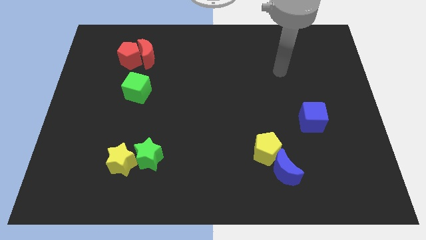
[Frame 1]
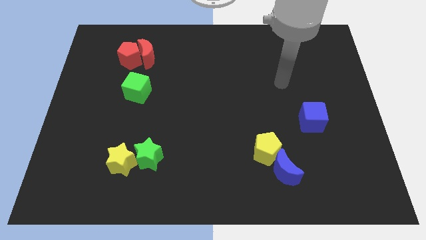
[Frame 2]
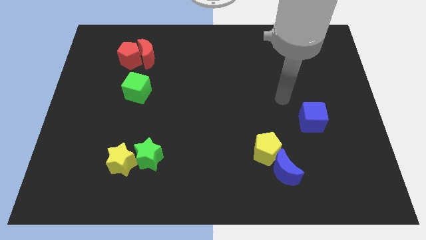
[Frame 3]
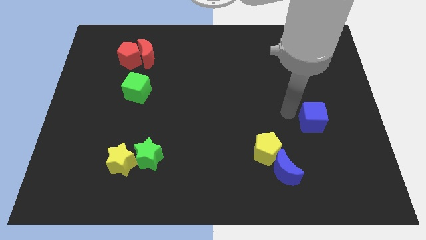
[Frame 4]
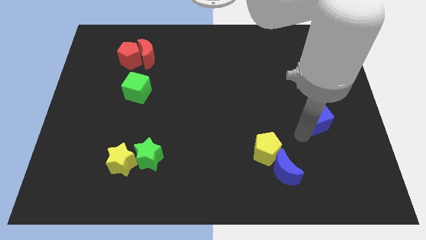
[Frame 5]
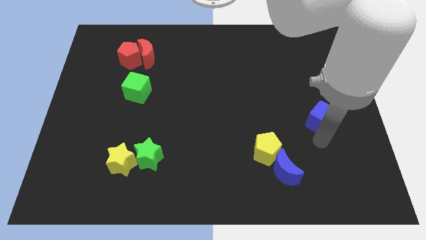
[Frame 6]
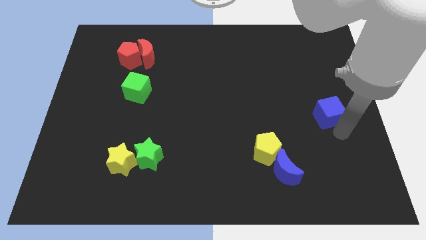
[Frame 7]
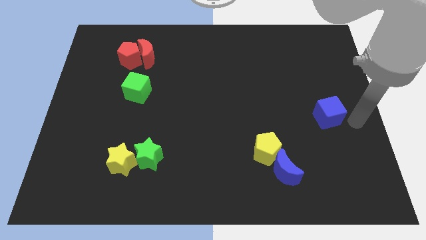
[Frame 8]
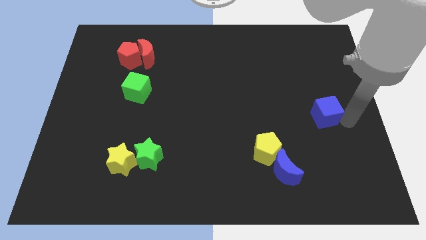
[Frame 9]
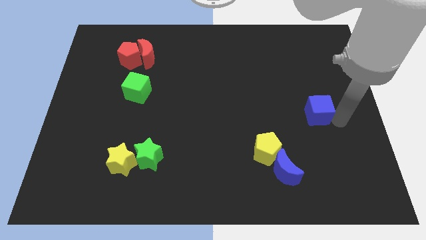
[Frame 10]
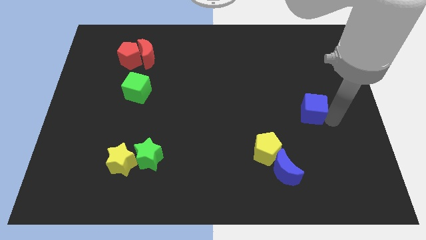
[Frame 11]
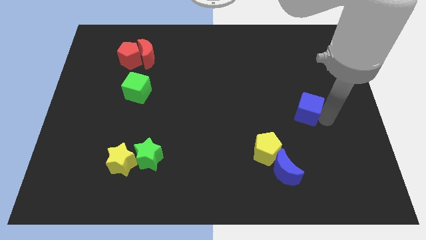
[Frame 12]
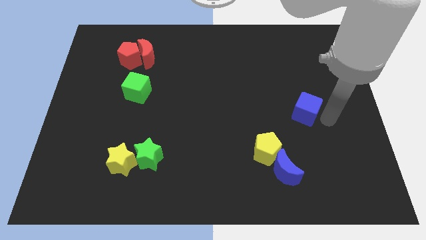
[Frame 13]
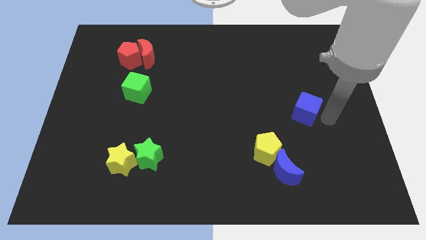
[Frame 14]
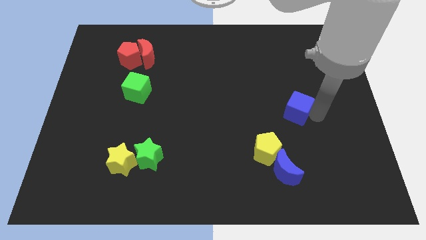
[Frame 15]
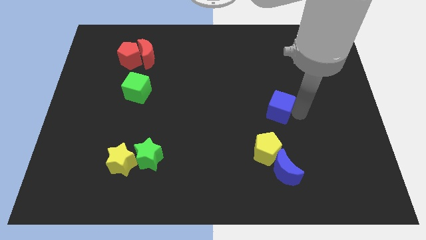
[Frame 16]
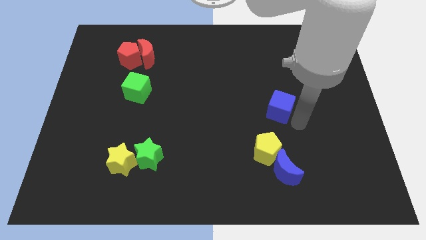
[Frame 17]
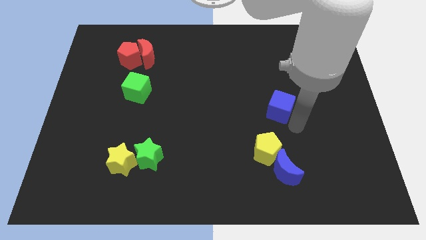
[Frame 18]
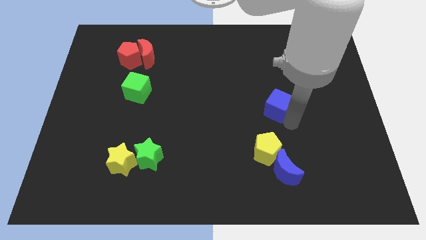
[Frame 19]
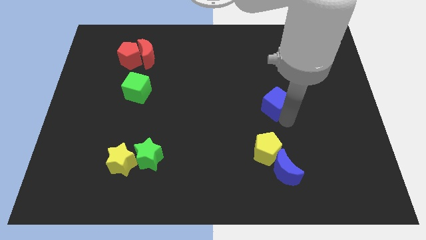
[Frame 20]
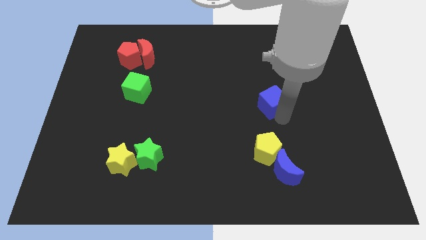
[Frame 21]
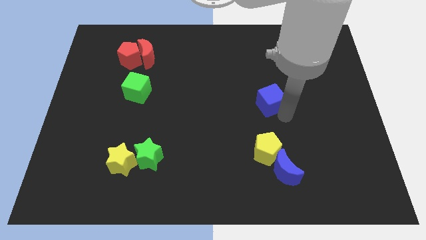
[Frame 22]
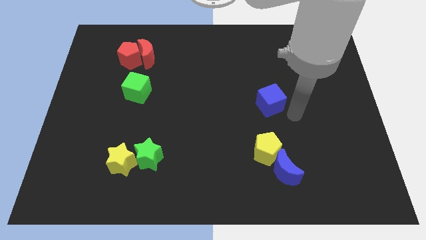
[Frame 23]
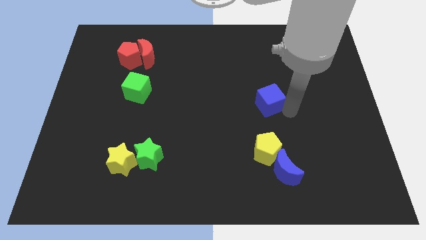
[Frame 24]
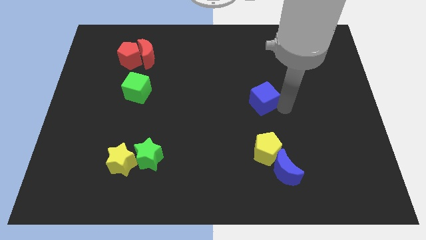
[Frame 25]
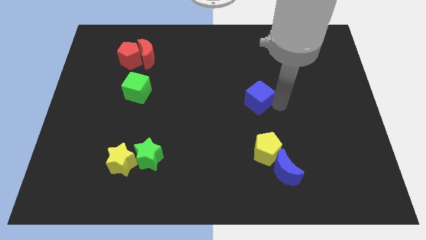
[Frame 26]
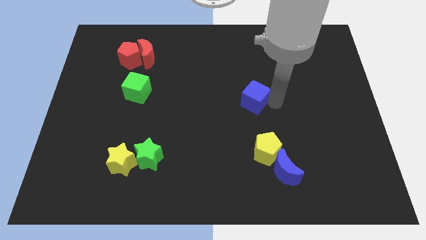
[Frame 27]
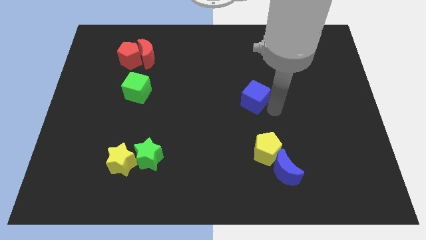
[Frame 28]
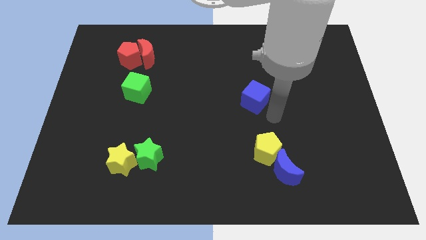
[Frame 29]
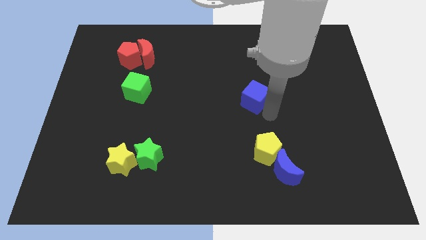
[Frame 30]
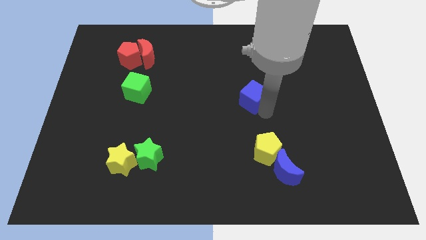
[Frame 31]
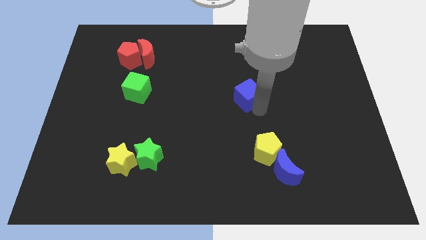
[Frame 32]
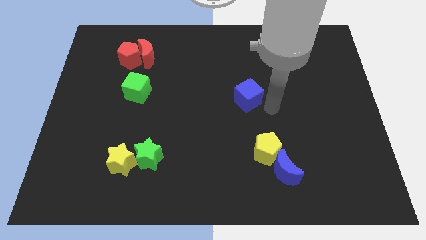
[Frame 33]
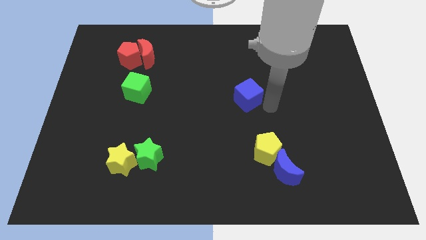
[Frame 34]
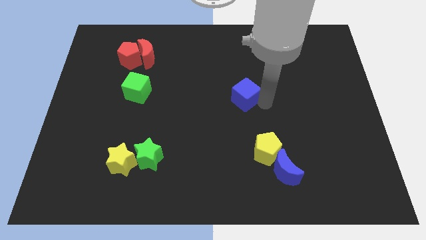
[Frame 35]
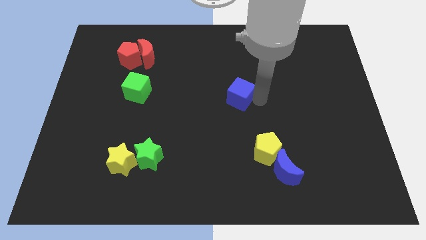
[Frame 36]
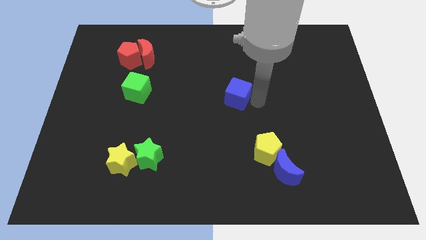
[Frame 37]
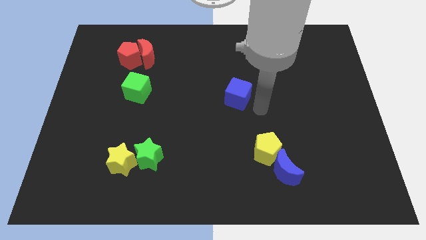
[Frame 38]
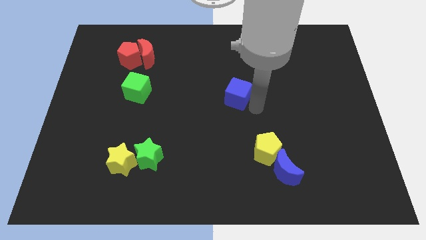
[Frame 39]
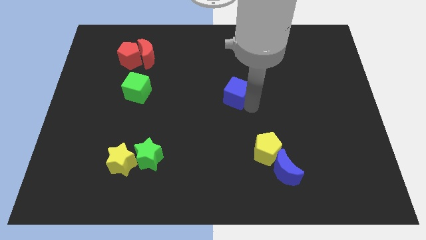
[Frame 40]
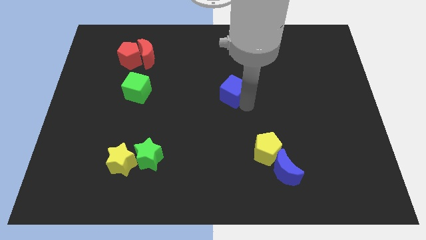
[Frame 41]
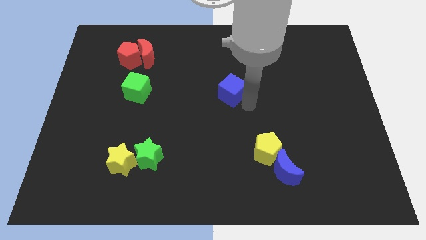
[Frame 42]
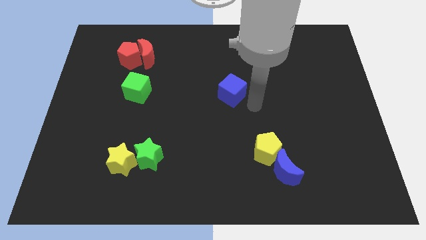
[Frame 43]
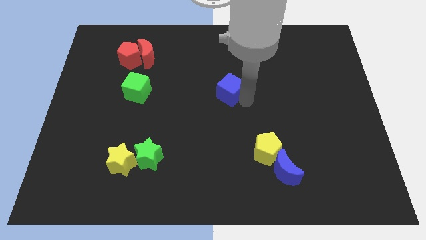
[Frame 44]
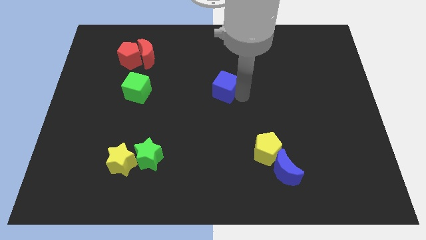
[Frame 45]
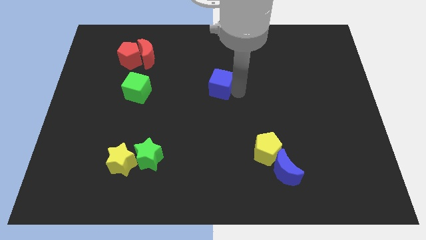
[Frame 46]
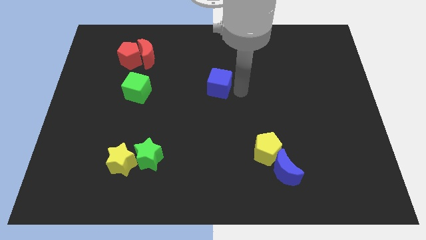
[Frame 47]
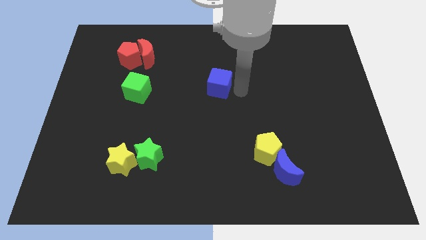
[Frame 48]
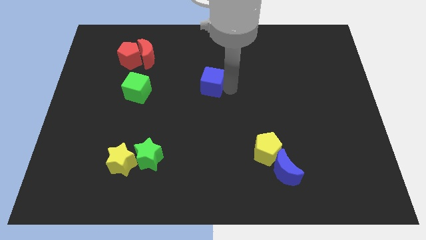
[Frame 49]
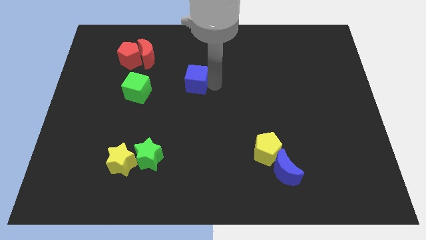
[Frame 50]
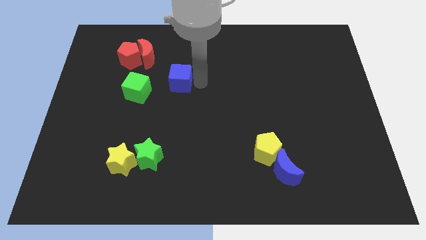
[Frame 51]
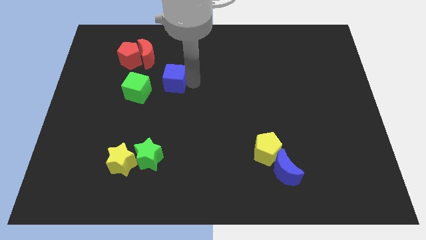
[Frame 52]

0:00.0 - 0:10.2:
push the blue cube diagonally up and to the right of the green cube

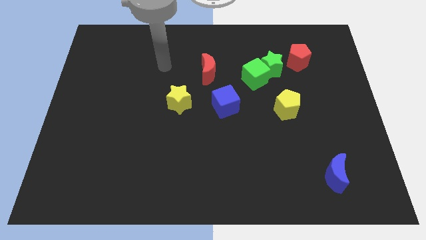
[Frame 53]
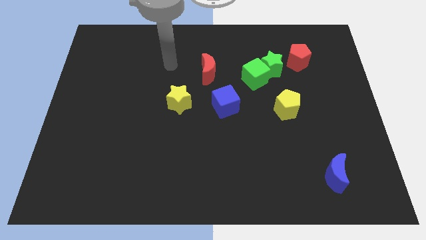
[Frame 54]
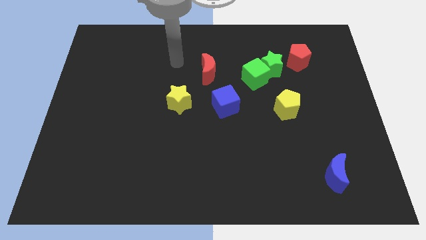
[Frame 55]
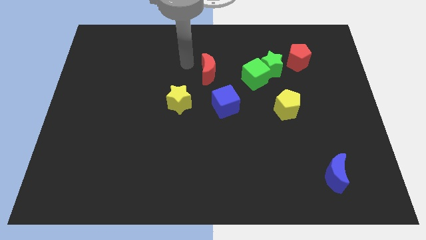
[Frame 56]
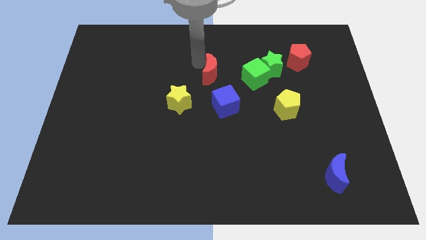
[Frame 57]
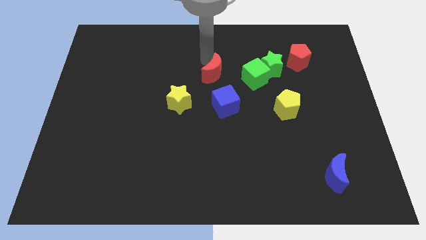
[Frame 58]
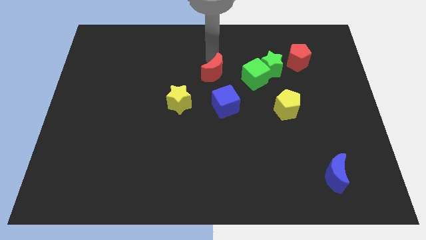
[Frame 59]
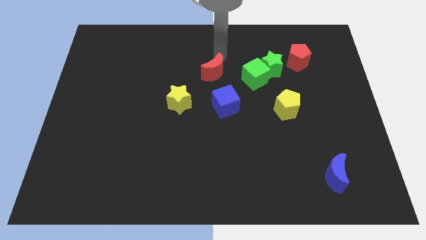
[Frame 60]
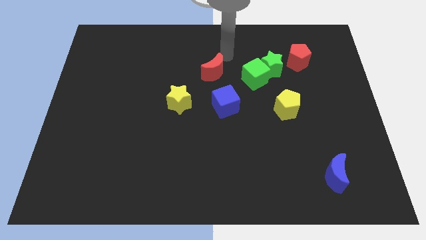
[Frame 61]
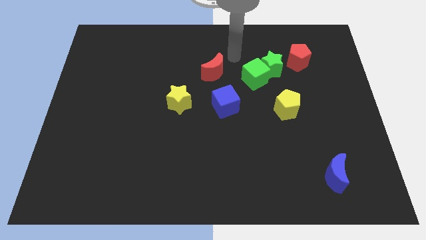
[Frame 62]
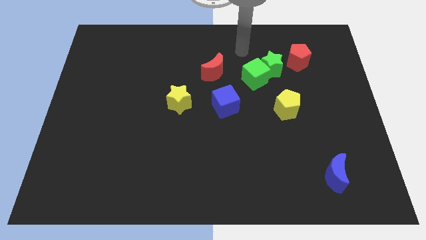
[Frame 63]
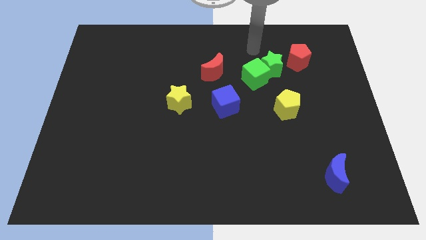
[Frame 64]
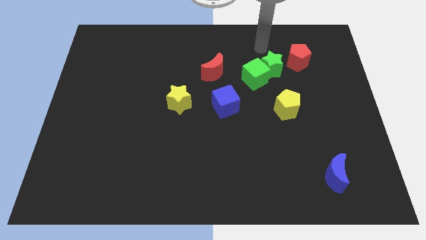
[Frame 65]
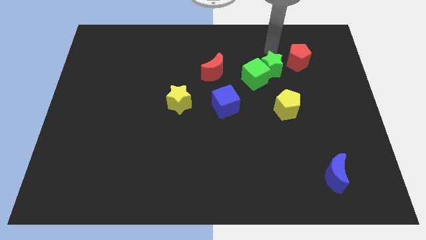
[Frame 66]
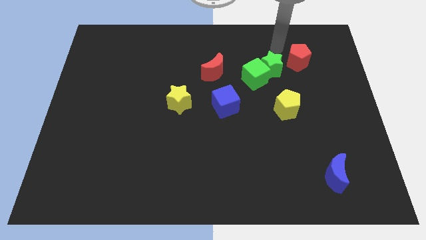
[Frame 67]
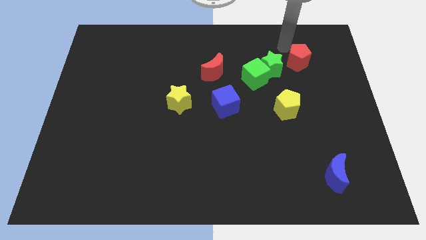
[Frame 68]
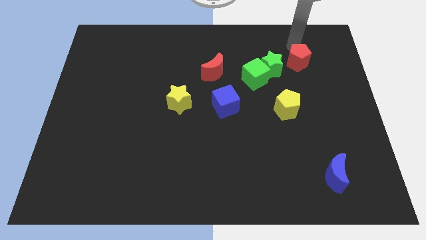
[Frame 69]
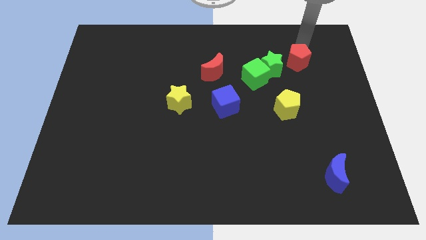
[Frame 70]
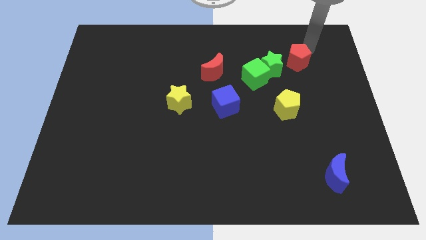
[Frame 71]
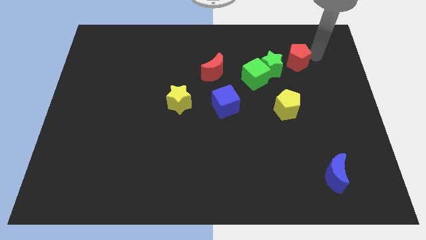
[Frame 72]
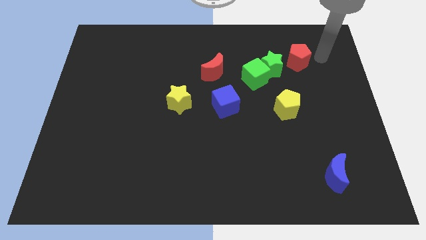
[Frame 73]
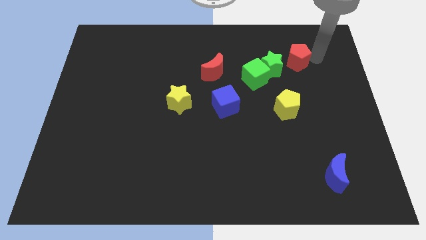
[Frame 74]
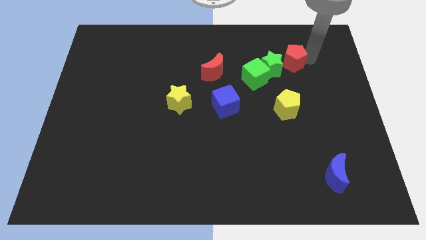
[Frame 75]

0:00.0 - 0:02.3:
move the red pentagon diagonally up and to the right of the green cube
